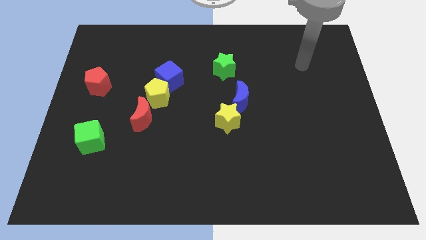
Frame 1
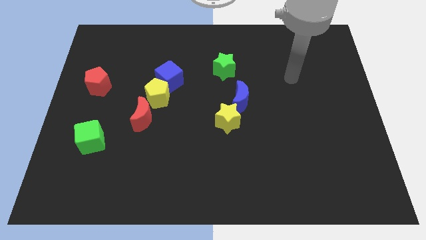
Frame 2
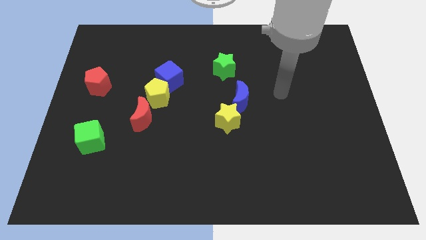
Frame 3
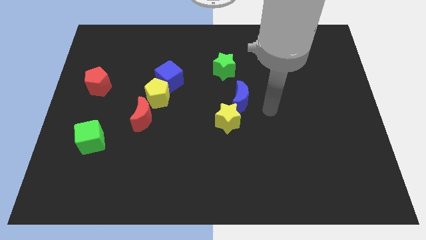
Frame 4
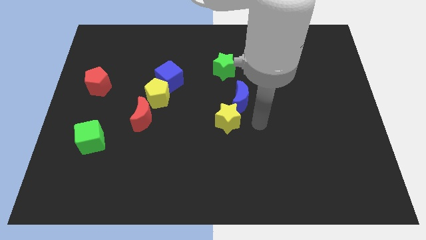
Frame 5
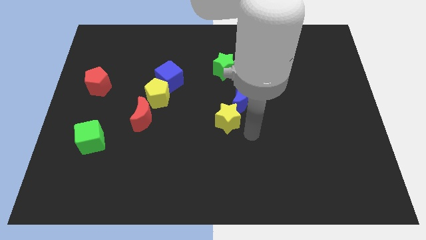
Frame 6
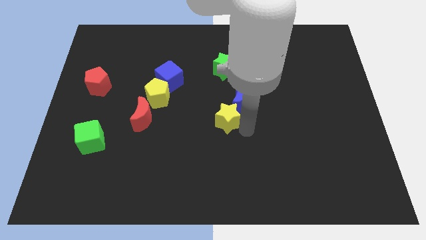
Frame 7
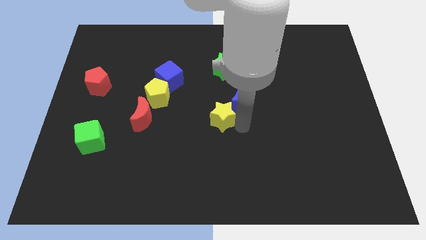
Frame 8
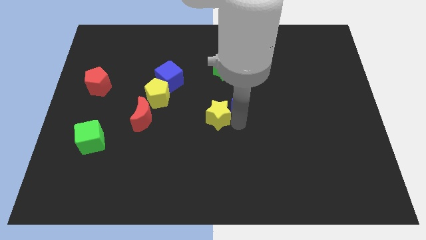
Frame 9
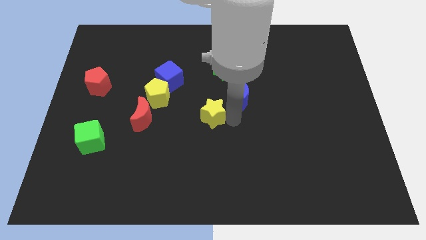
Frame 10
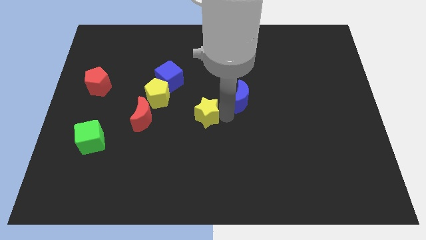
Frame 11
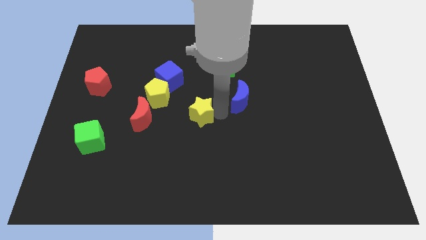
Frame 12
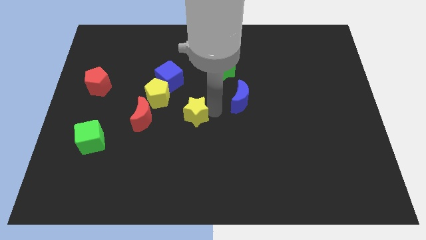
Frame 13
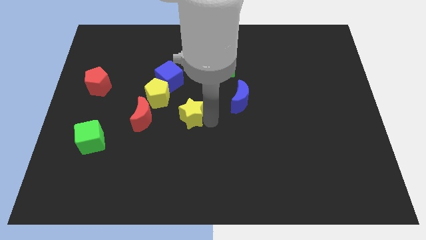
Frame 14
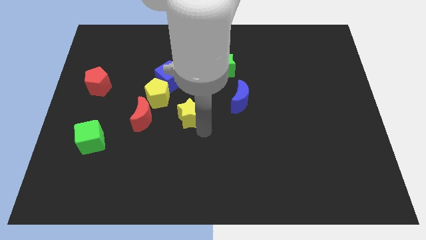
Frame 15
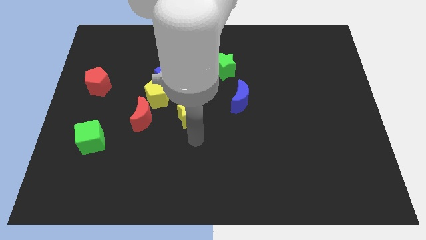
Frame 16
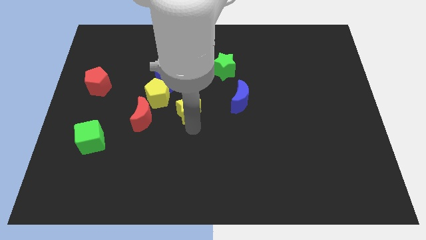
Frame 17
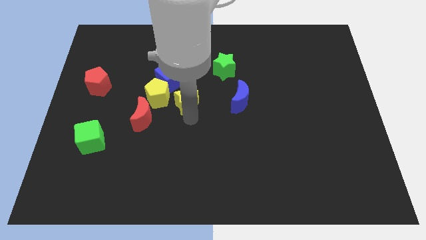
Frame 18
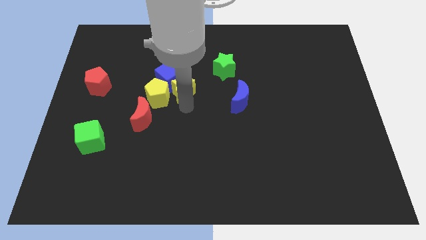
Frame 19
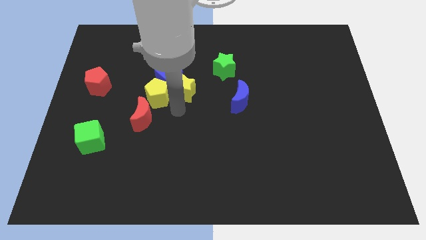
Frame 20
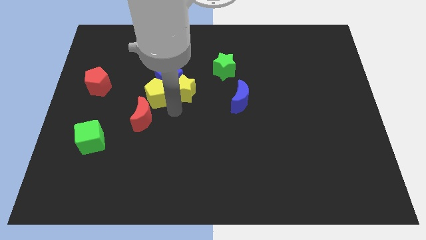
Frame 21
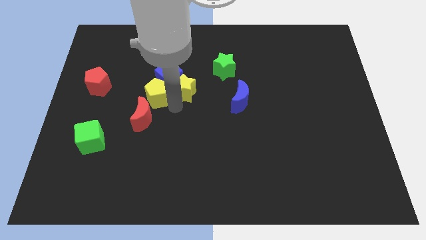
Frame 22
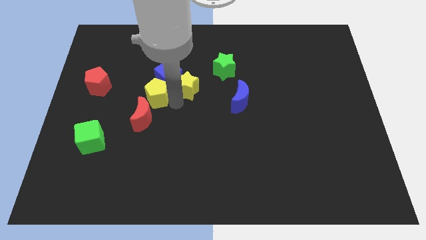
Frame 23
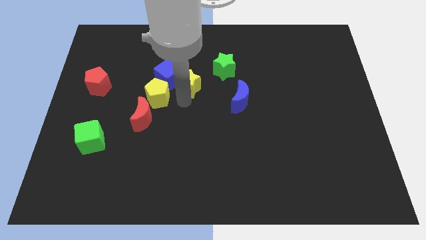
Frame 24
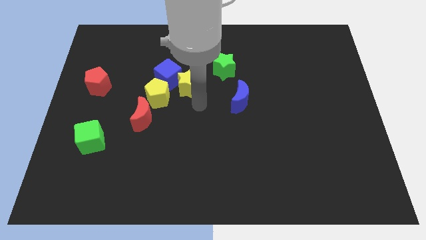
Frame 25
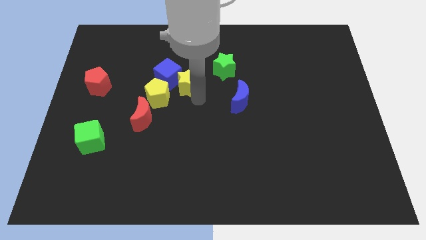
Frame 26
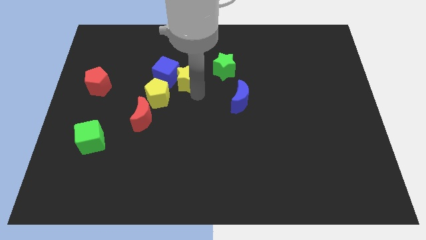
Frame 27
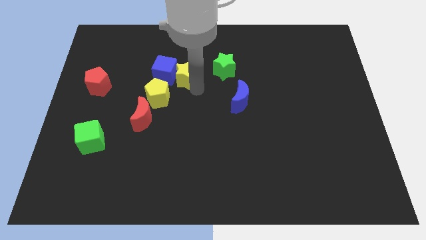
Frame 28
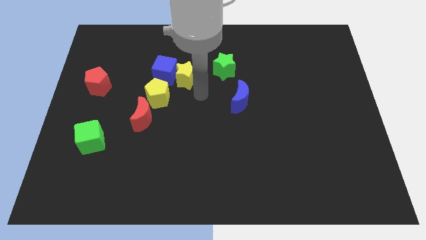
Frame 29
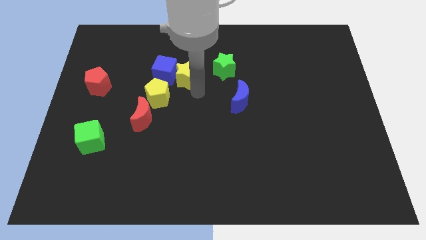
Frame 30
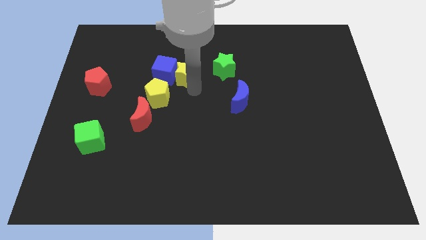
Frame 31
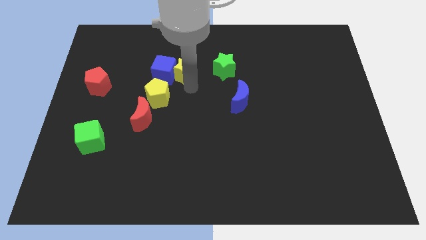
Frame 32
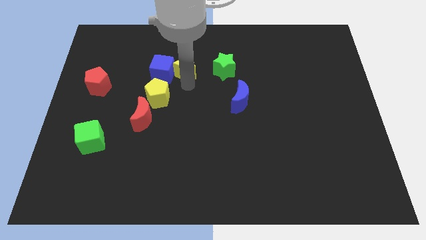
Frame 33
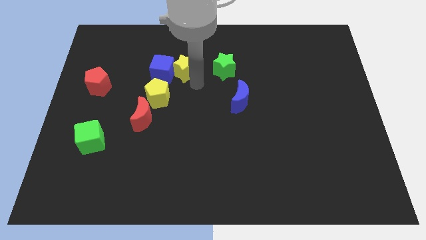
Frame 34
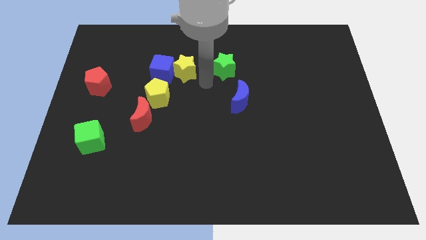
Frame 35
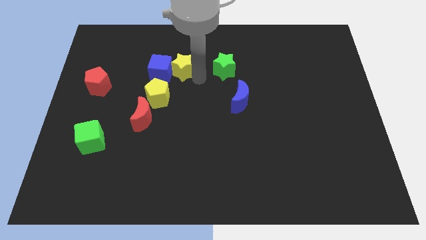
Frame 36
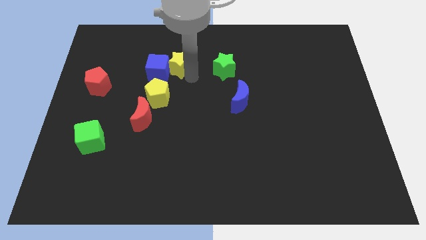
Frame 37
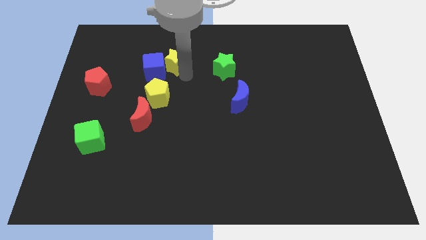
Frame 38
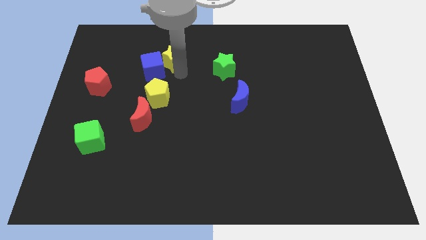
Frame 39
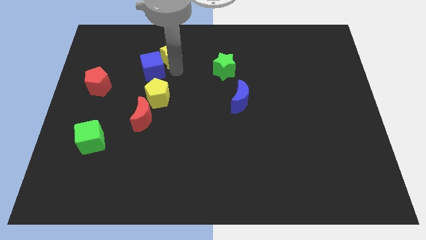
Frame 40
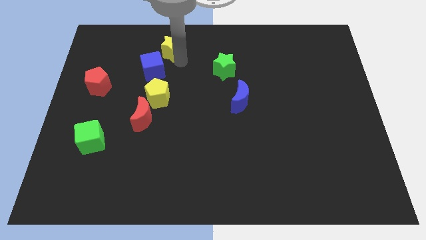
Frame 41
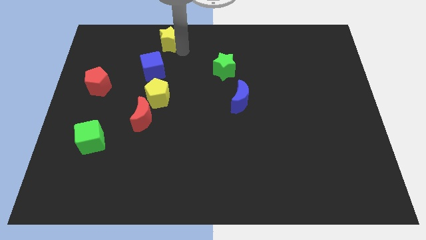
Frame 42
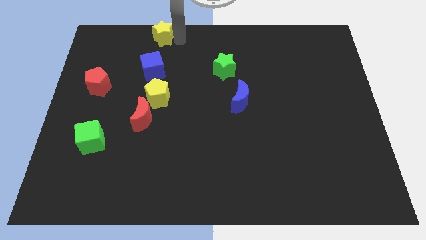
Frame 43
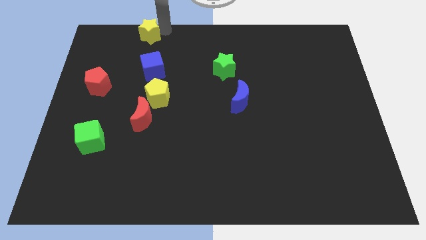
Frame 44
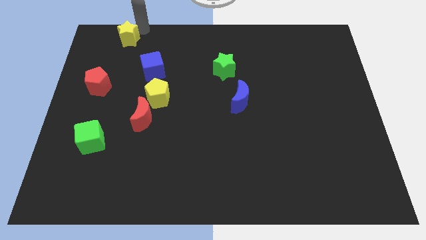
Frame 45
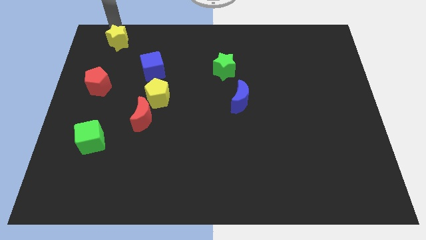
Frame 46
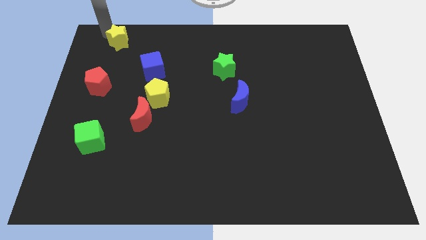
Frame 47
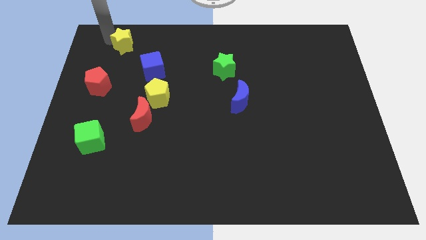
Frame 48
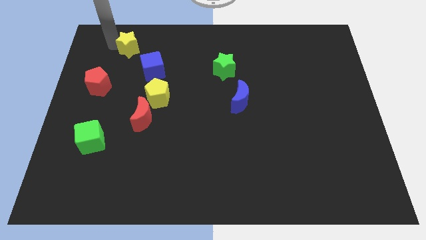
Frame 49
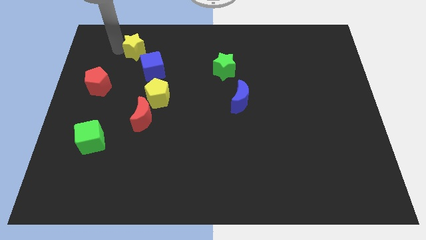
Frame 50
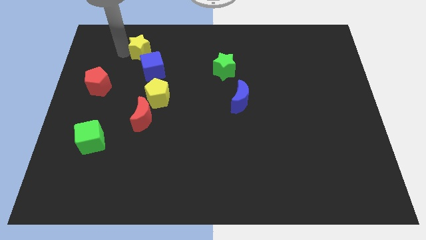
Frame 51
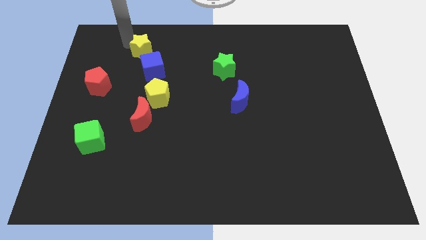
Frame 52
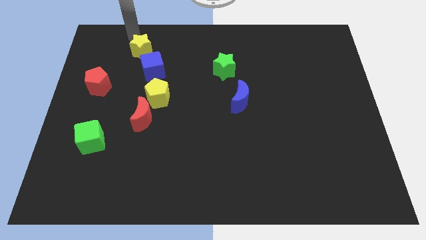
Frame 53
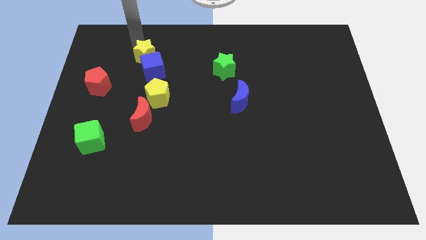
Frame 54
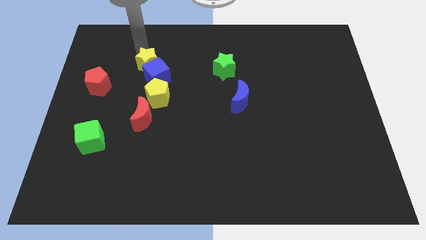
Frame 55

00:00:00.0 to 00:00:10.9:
move the yellow star just left of the blue cube

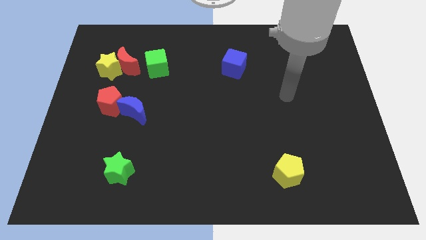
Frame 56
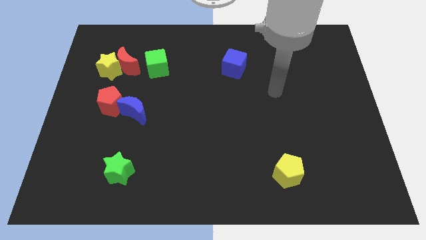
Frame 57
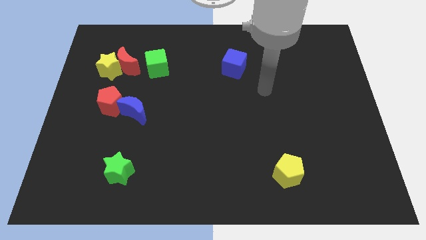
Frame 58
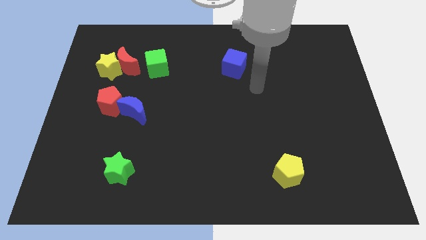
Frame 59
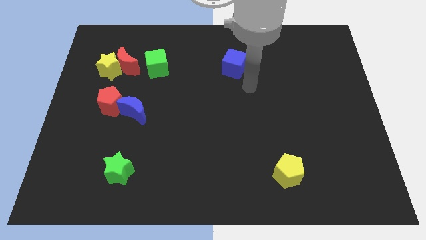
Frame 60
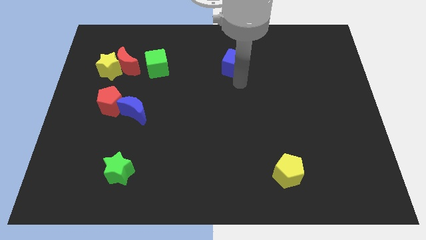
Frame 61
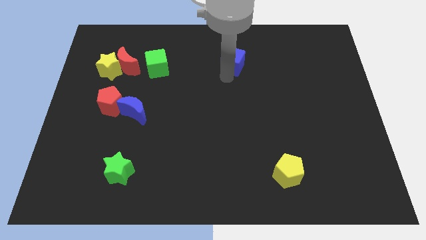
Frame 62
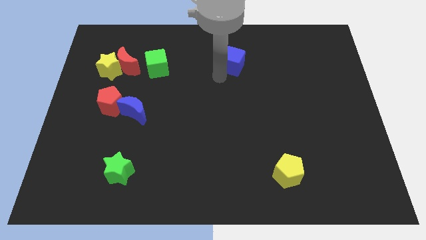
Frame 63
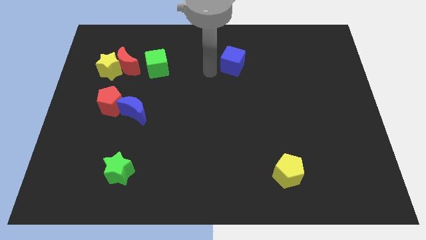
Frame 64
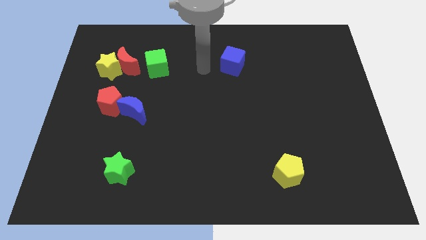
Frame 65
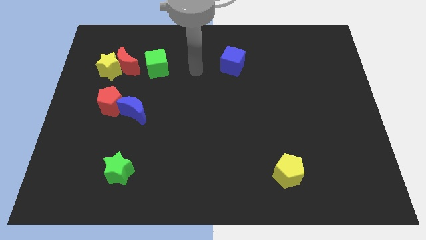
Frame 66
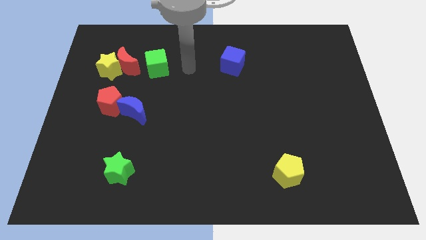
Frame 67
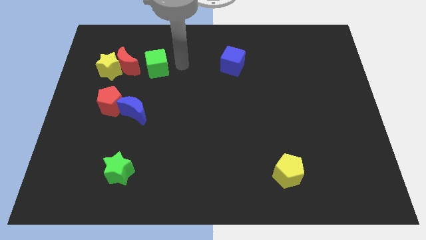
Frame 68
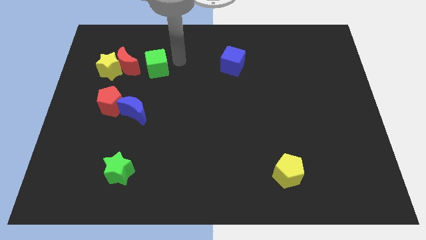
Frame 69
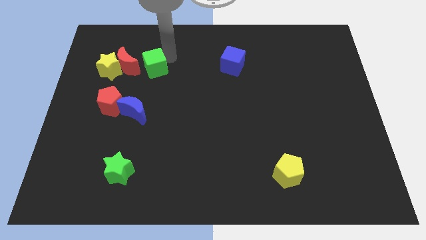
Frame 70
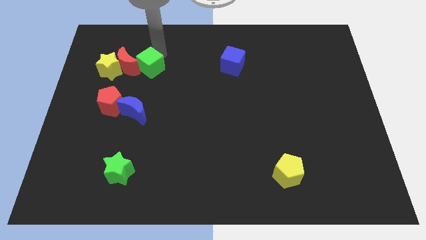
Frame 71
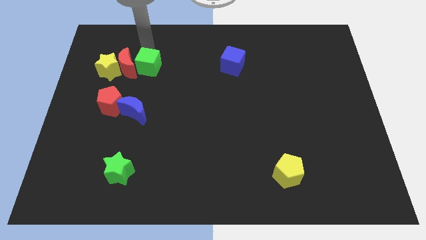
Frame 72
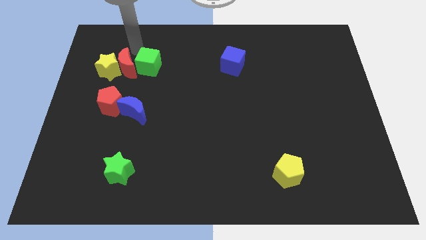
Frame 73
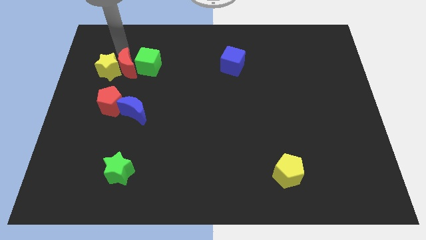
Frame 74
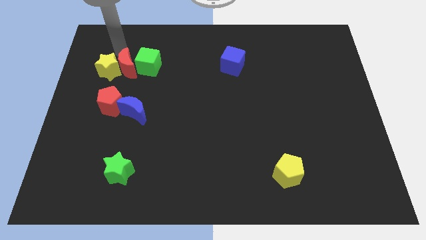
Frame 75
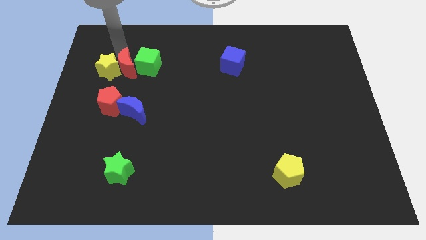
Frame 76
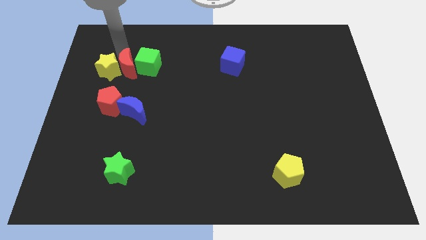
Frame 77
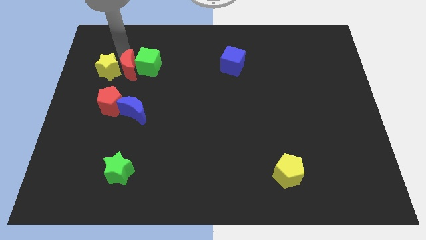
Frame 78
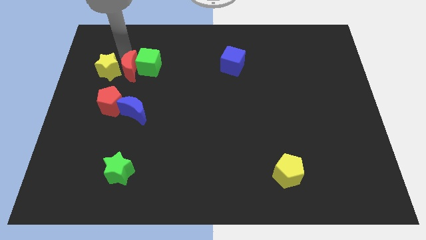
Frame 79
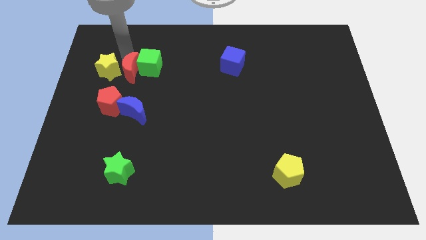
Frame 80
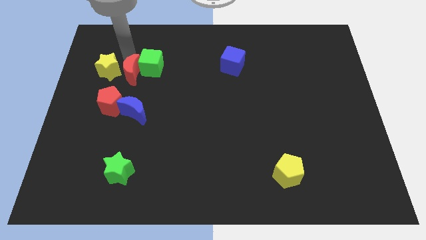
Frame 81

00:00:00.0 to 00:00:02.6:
move the red moon to the top right of the red pentagon
